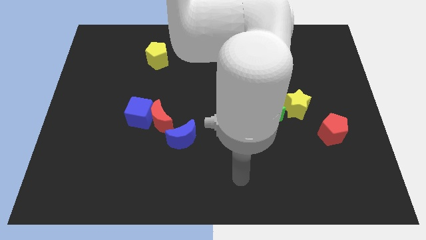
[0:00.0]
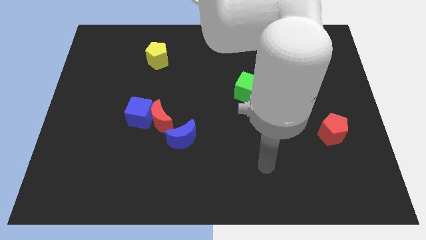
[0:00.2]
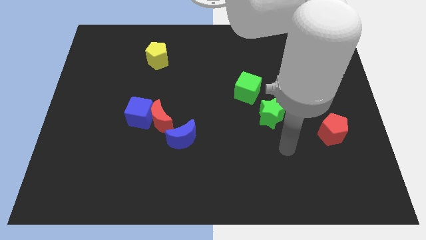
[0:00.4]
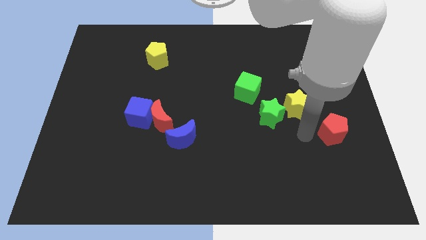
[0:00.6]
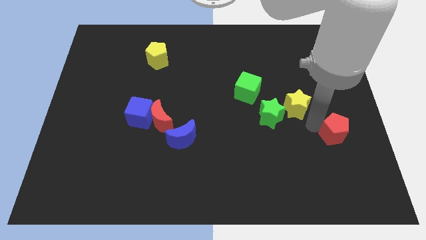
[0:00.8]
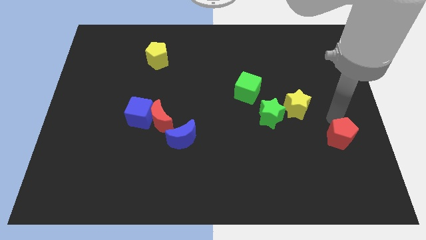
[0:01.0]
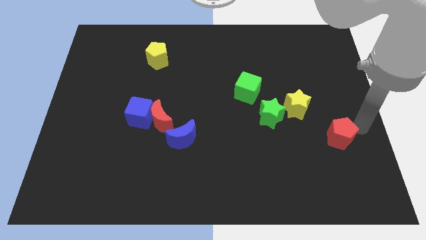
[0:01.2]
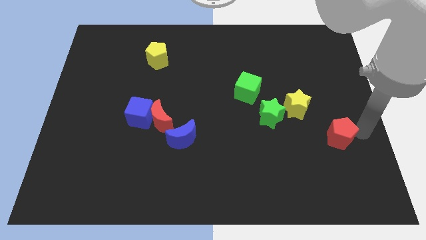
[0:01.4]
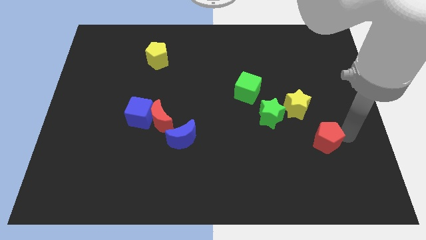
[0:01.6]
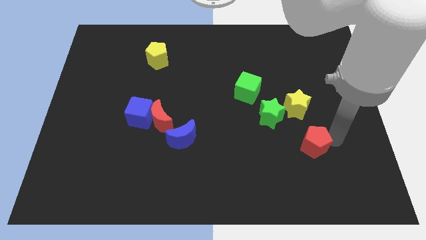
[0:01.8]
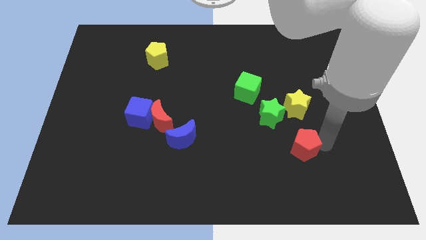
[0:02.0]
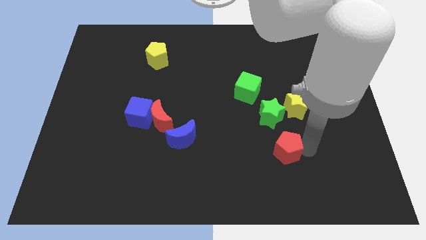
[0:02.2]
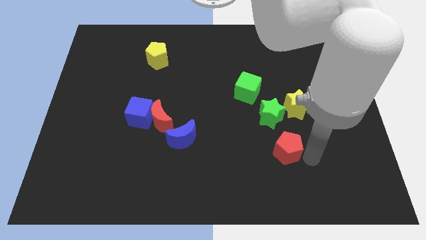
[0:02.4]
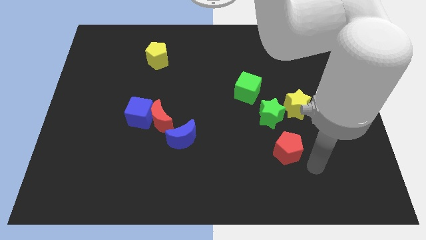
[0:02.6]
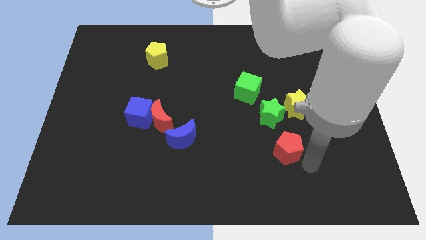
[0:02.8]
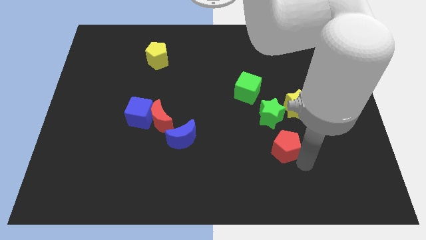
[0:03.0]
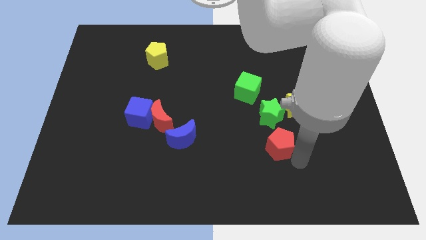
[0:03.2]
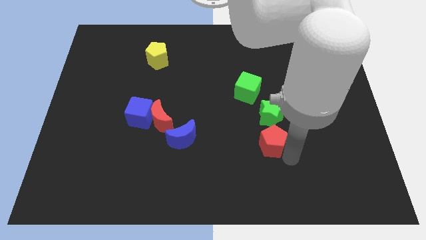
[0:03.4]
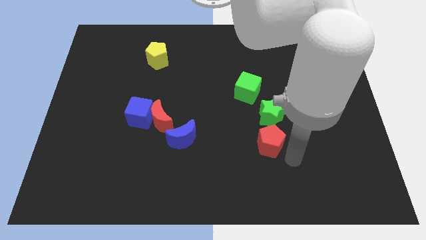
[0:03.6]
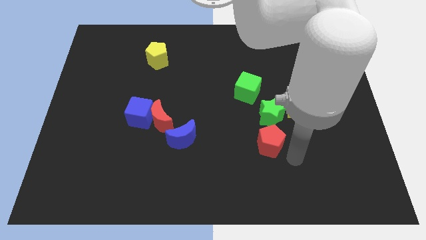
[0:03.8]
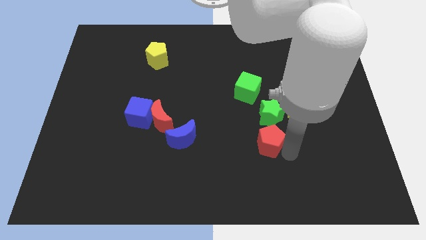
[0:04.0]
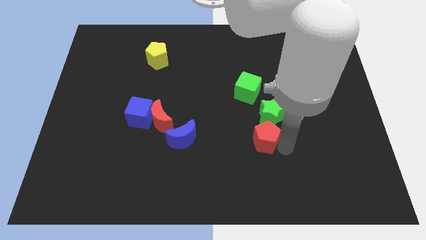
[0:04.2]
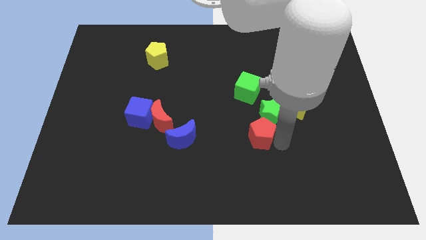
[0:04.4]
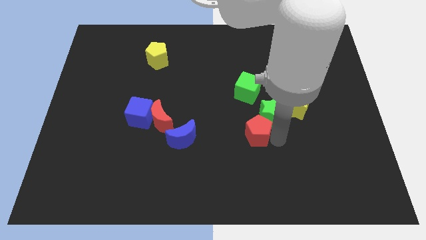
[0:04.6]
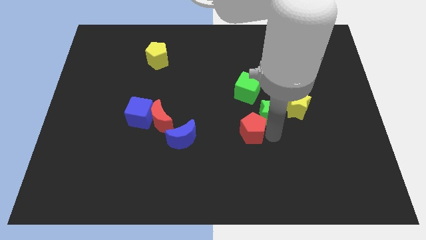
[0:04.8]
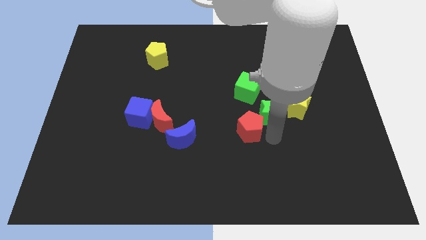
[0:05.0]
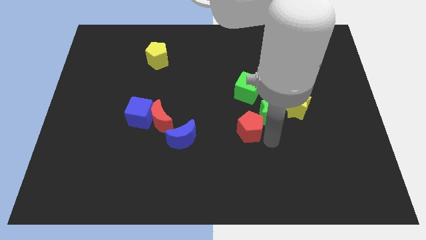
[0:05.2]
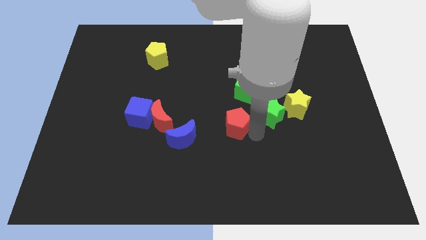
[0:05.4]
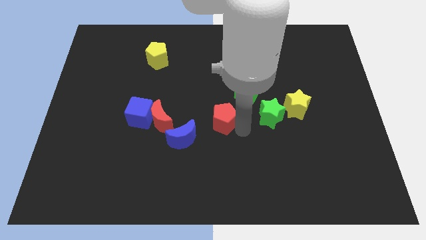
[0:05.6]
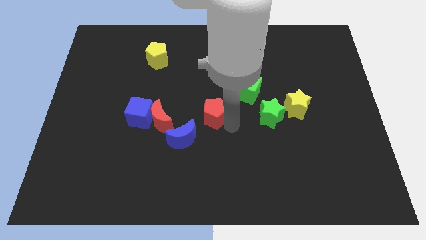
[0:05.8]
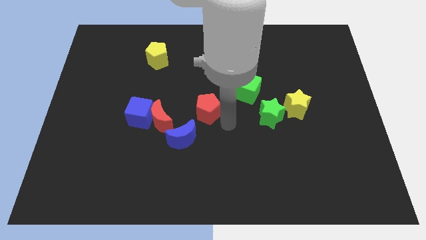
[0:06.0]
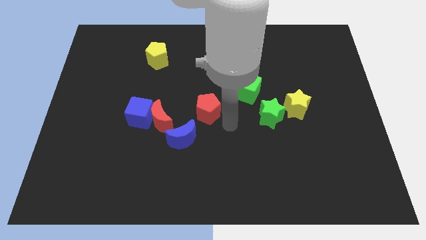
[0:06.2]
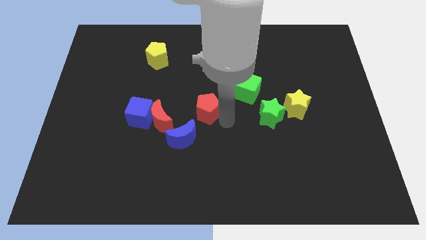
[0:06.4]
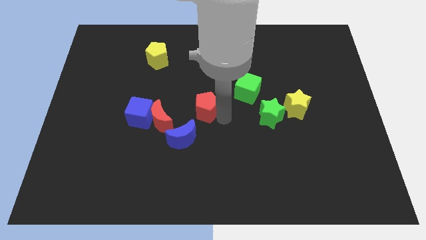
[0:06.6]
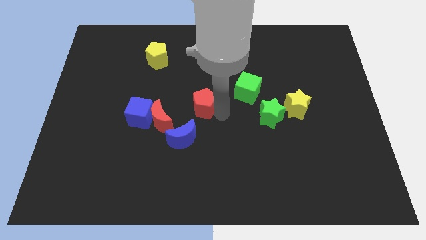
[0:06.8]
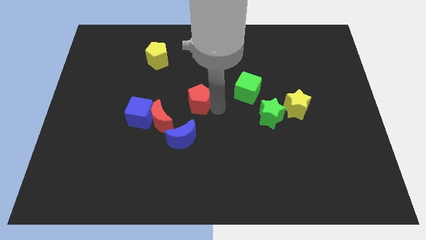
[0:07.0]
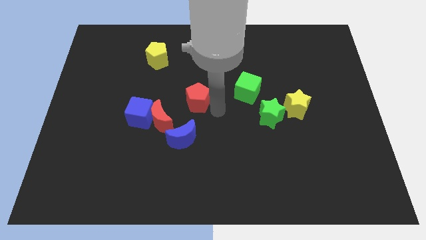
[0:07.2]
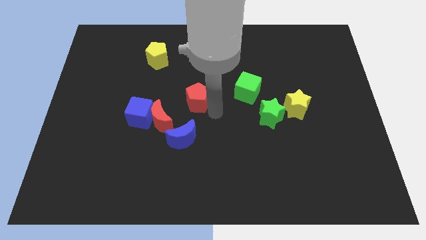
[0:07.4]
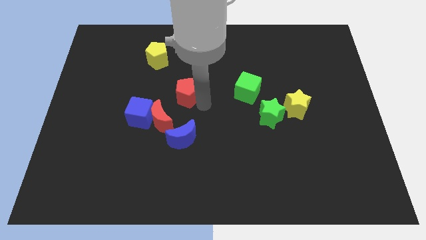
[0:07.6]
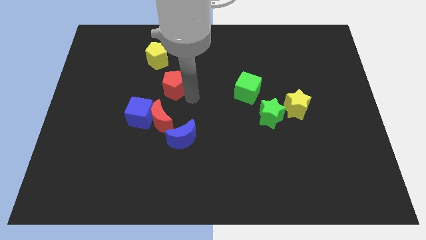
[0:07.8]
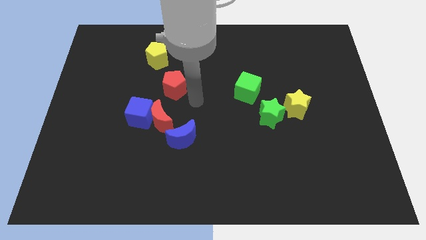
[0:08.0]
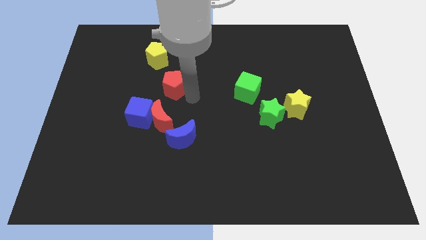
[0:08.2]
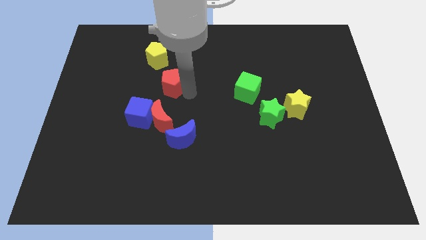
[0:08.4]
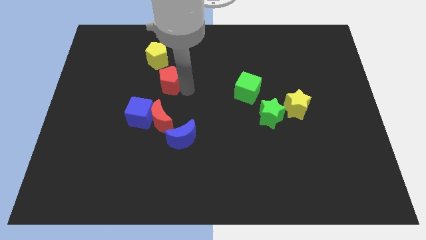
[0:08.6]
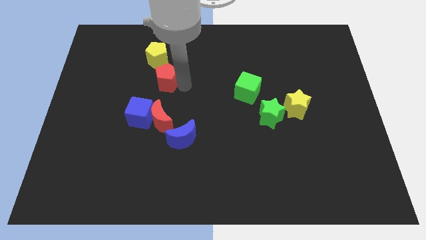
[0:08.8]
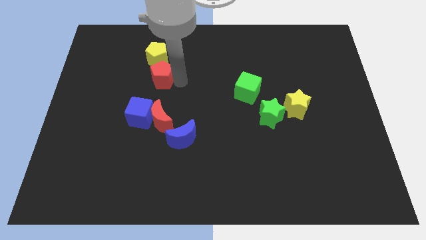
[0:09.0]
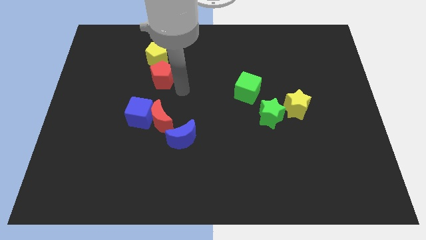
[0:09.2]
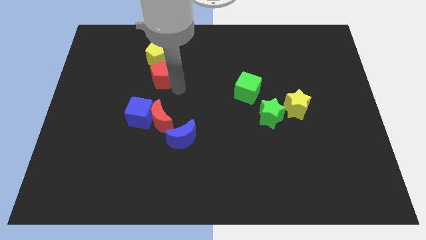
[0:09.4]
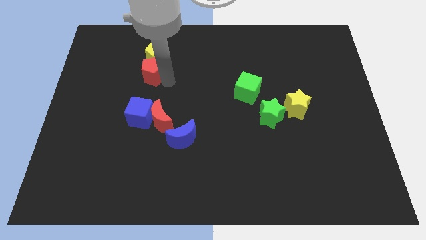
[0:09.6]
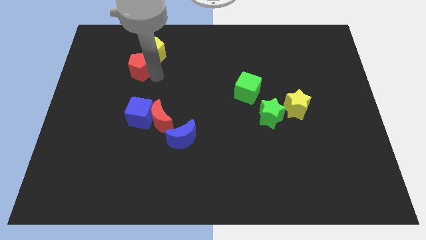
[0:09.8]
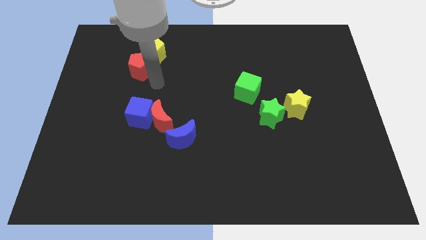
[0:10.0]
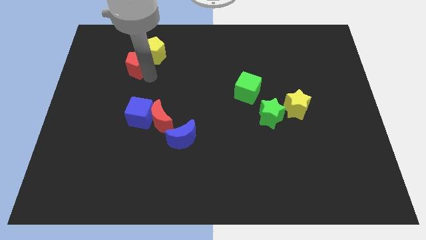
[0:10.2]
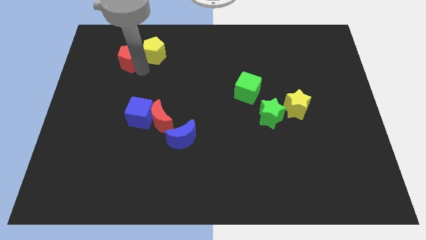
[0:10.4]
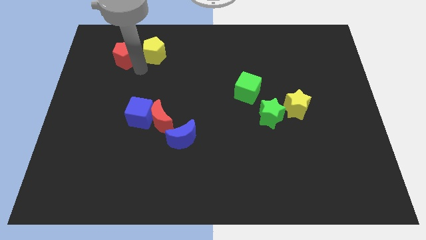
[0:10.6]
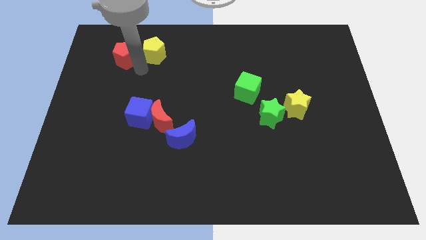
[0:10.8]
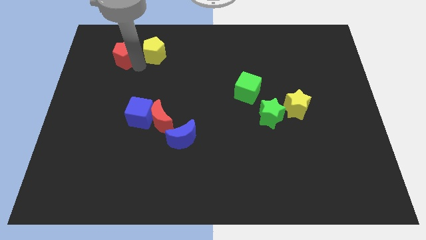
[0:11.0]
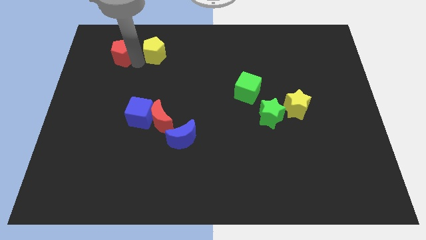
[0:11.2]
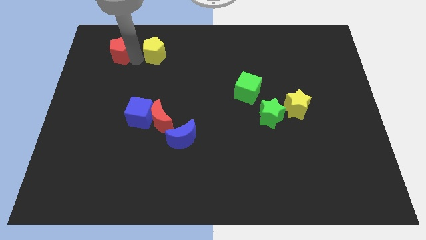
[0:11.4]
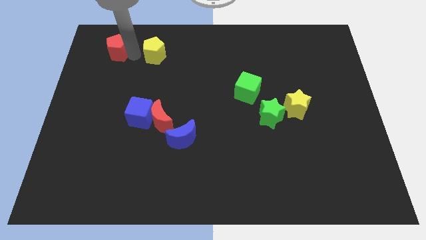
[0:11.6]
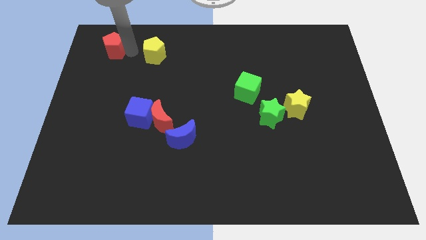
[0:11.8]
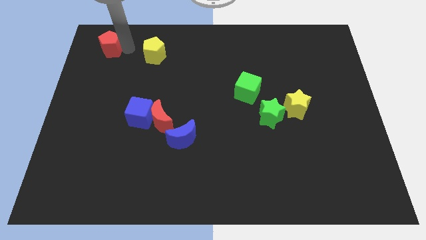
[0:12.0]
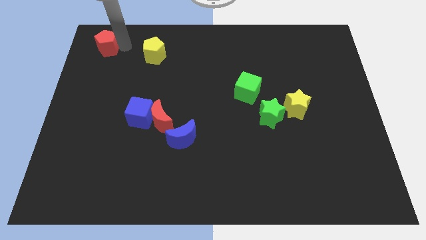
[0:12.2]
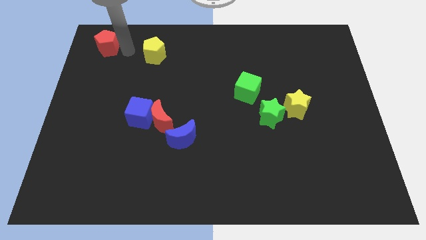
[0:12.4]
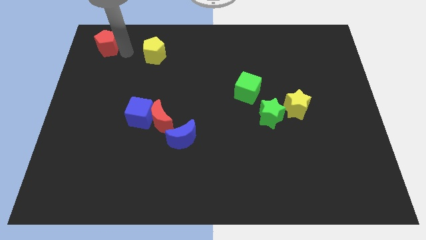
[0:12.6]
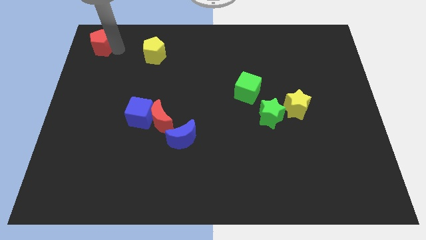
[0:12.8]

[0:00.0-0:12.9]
push the red pentagon to the top left corner
